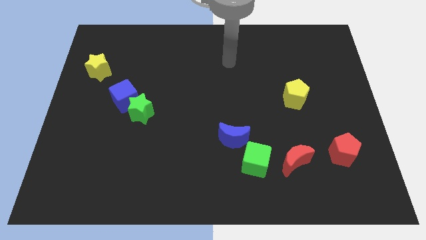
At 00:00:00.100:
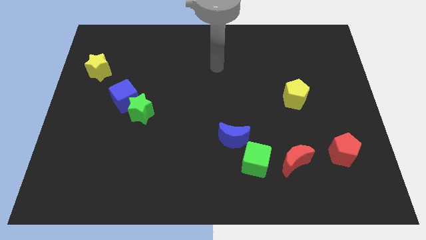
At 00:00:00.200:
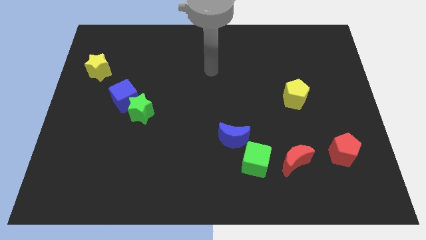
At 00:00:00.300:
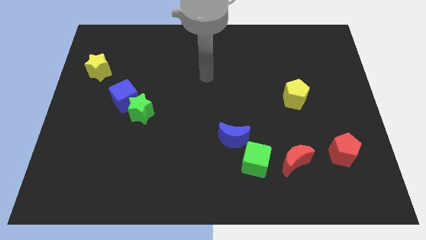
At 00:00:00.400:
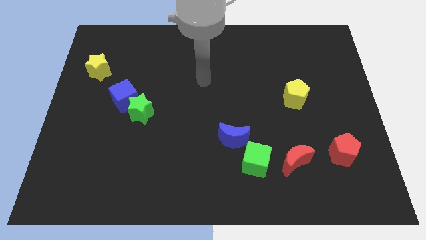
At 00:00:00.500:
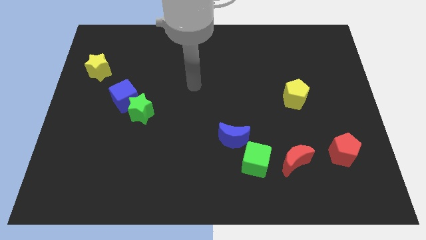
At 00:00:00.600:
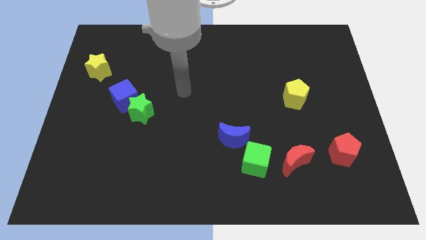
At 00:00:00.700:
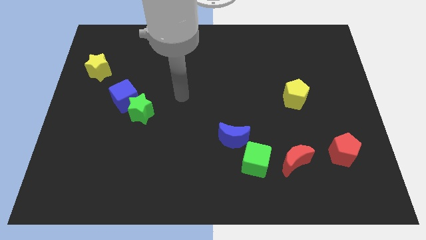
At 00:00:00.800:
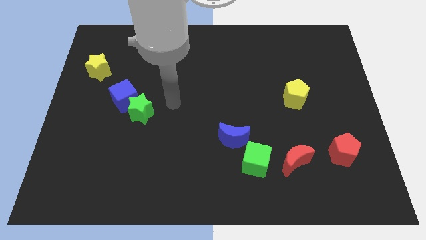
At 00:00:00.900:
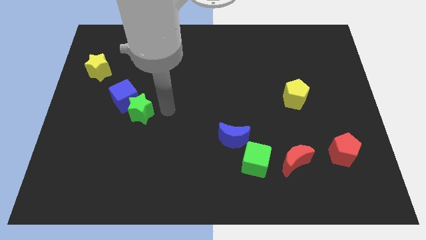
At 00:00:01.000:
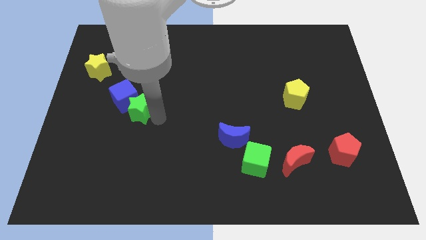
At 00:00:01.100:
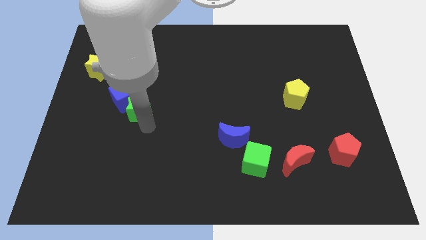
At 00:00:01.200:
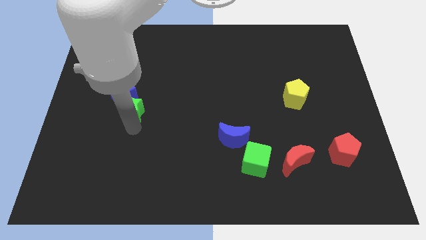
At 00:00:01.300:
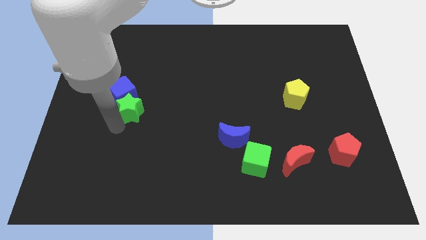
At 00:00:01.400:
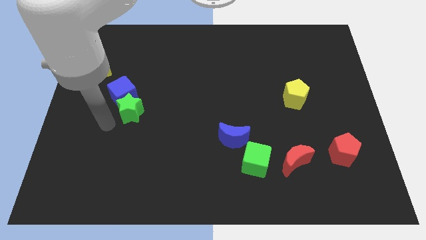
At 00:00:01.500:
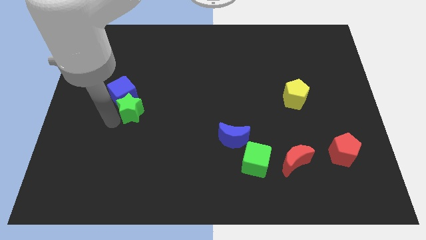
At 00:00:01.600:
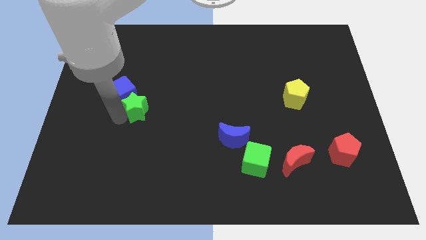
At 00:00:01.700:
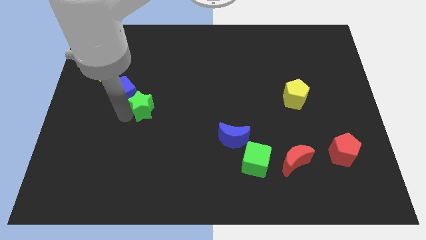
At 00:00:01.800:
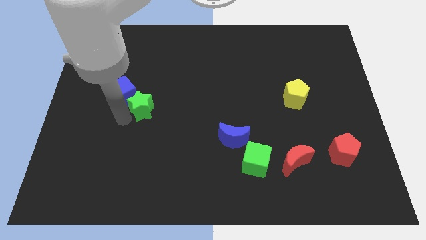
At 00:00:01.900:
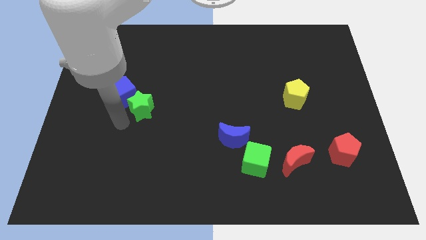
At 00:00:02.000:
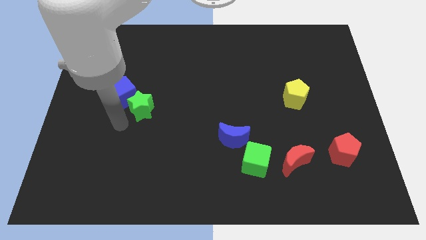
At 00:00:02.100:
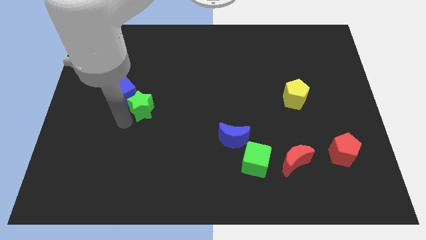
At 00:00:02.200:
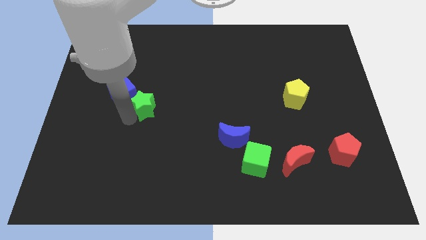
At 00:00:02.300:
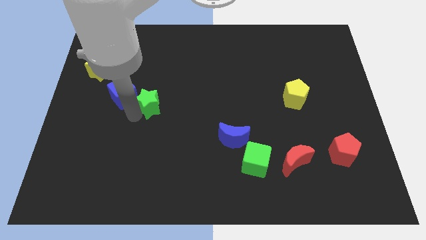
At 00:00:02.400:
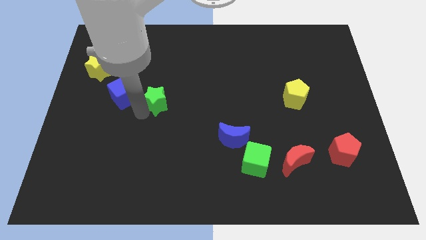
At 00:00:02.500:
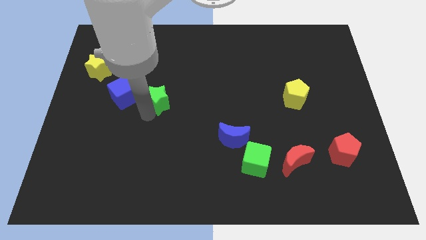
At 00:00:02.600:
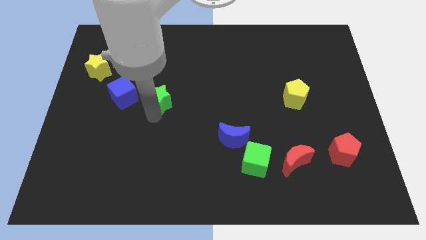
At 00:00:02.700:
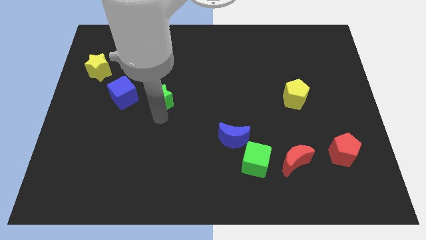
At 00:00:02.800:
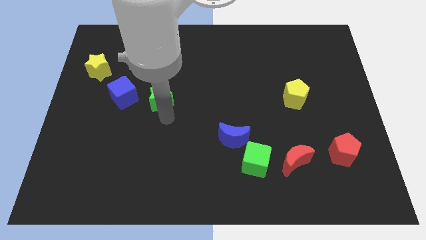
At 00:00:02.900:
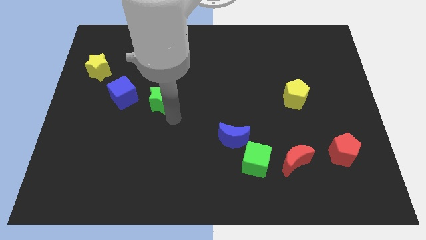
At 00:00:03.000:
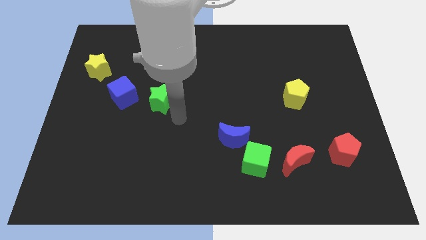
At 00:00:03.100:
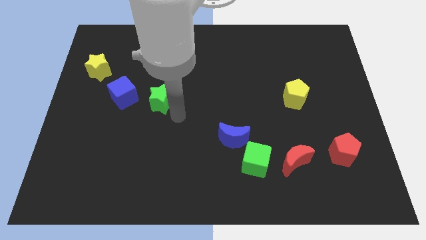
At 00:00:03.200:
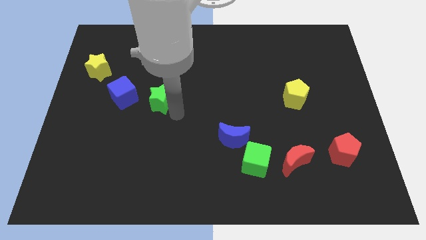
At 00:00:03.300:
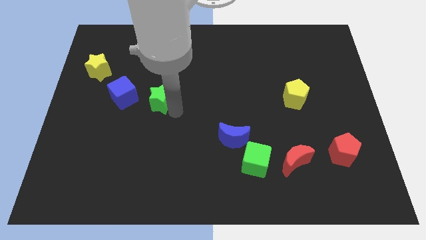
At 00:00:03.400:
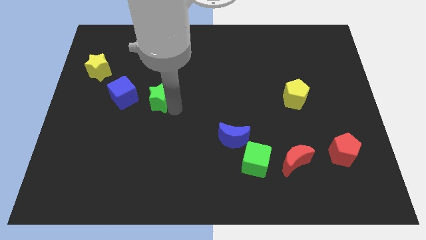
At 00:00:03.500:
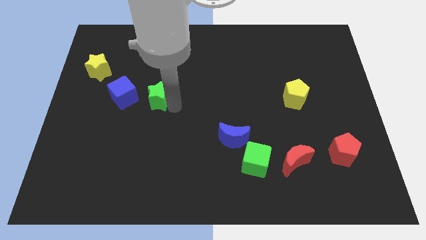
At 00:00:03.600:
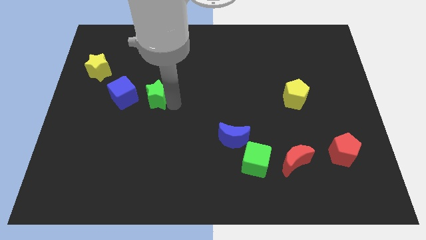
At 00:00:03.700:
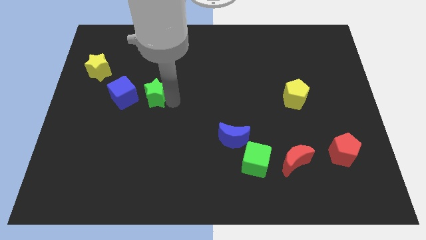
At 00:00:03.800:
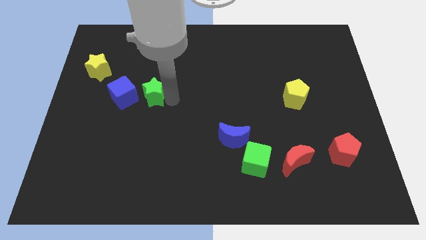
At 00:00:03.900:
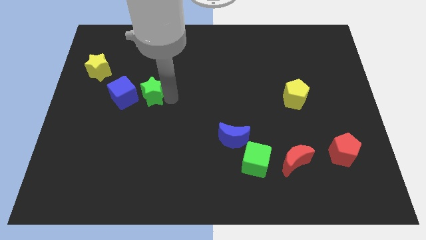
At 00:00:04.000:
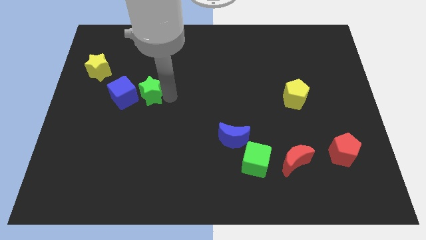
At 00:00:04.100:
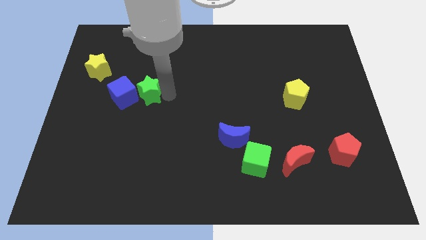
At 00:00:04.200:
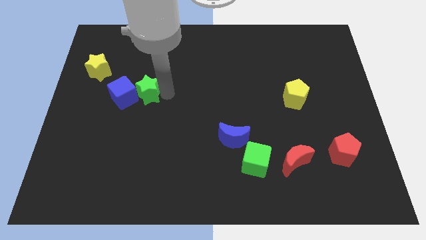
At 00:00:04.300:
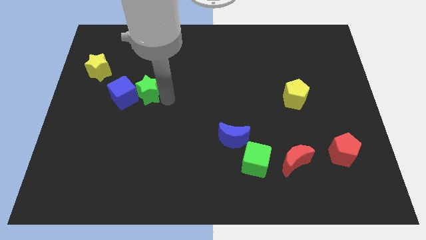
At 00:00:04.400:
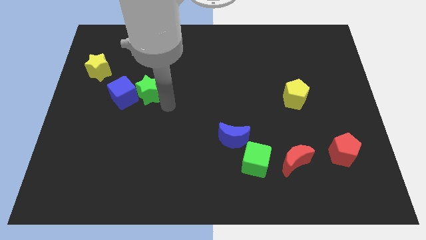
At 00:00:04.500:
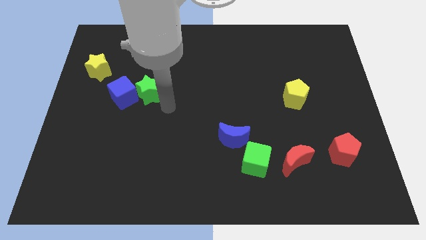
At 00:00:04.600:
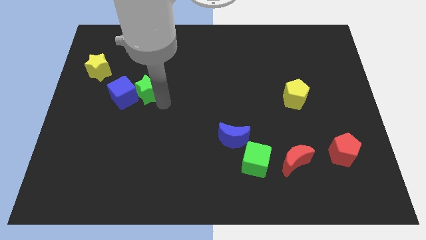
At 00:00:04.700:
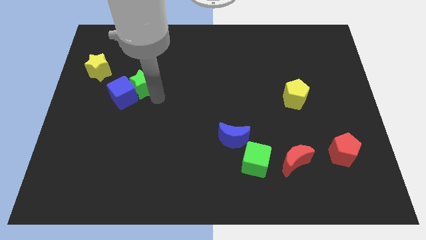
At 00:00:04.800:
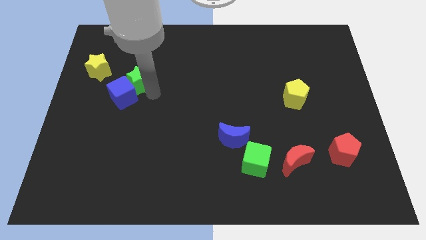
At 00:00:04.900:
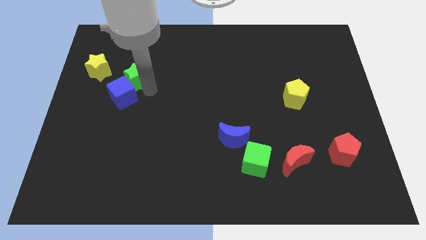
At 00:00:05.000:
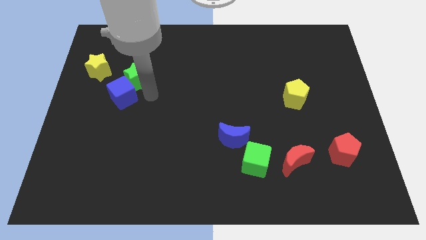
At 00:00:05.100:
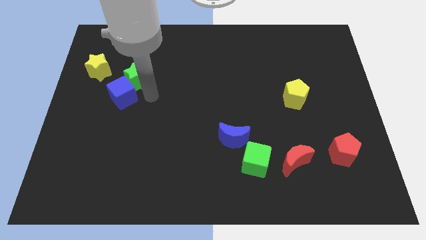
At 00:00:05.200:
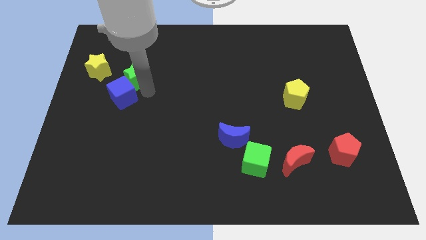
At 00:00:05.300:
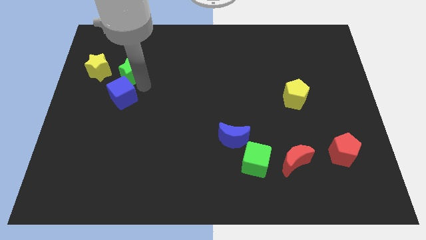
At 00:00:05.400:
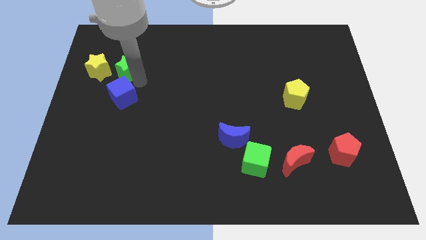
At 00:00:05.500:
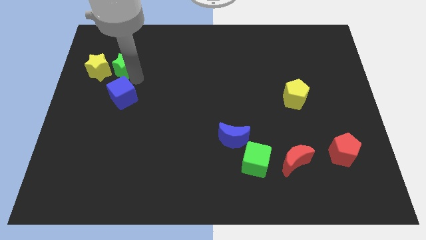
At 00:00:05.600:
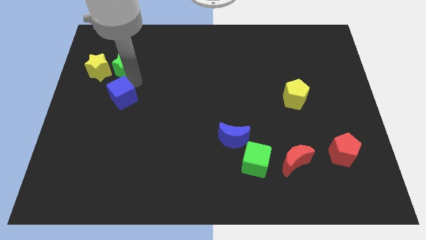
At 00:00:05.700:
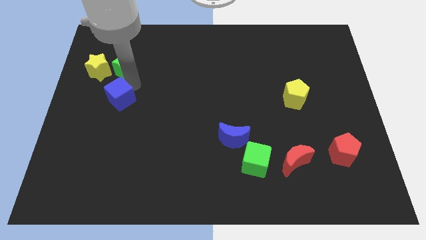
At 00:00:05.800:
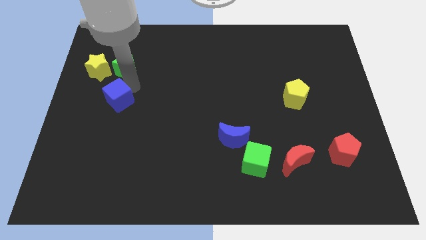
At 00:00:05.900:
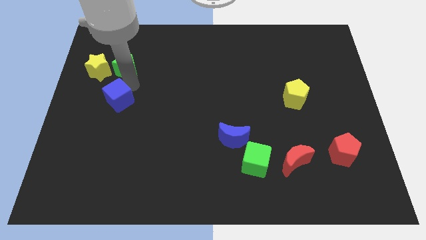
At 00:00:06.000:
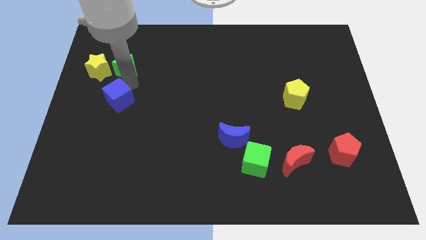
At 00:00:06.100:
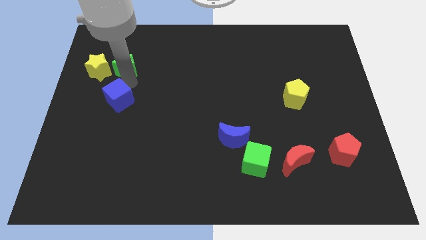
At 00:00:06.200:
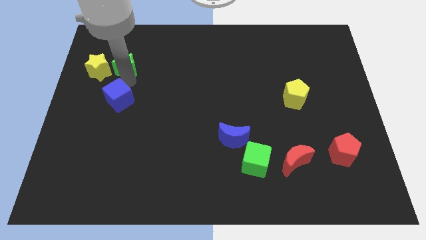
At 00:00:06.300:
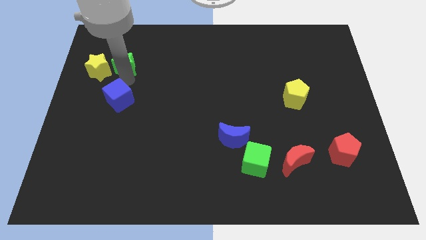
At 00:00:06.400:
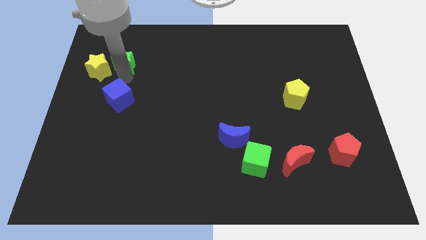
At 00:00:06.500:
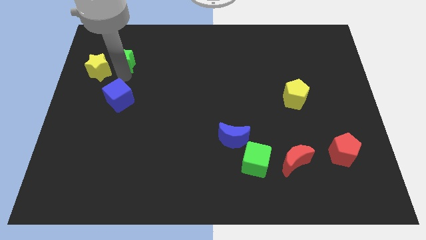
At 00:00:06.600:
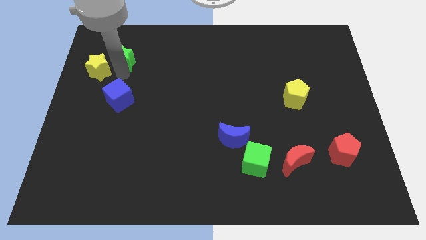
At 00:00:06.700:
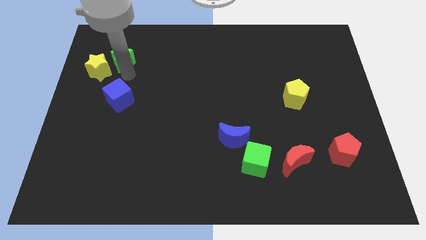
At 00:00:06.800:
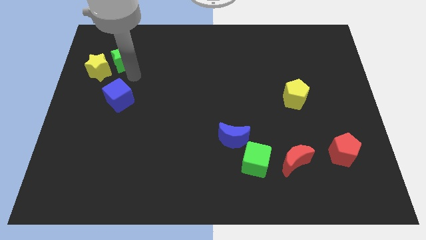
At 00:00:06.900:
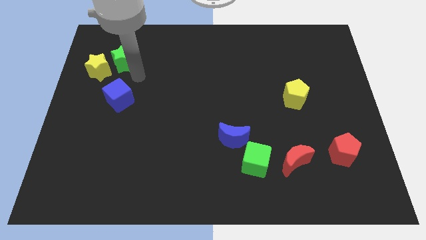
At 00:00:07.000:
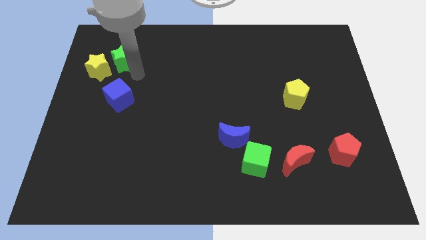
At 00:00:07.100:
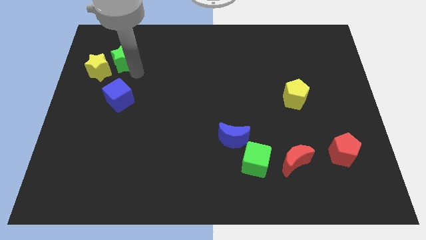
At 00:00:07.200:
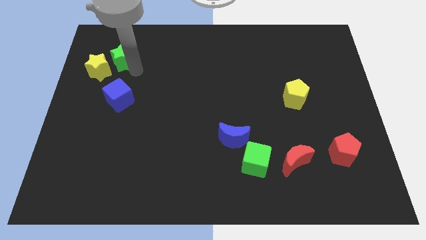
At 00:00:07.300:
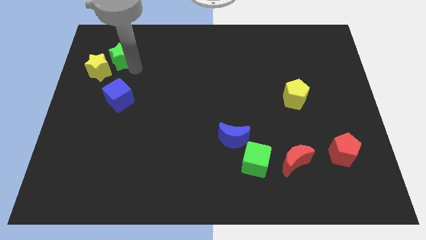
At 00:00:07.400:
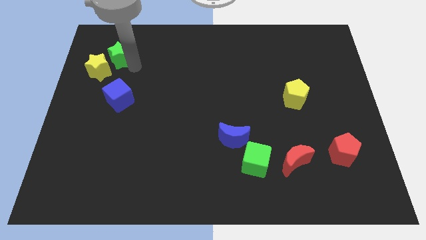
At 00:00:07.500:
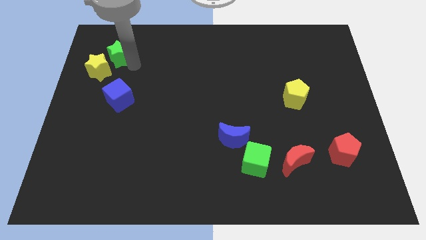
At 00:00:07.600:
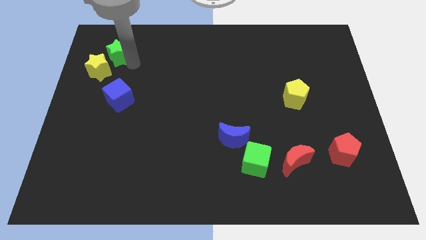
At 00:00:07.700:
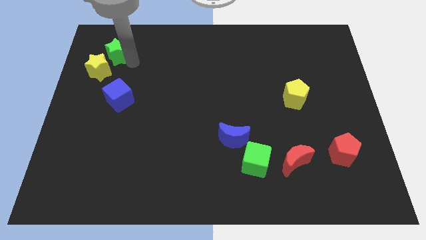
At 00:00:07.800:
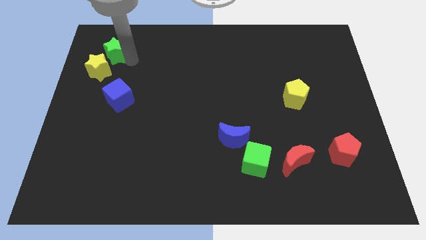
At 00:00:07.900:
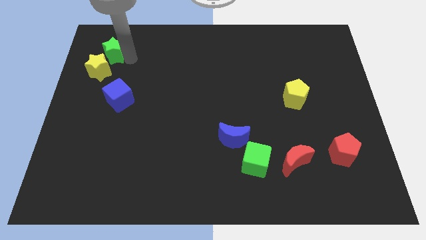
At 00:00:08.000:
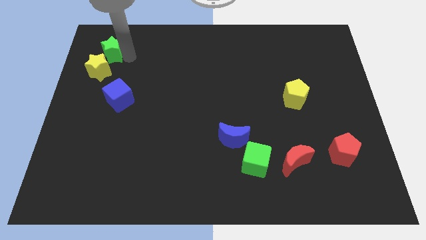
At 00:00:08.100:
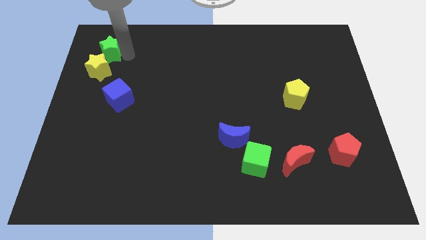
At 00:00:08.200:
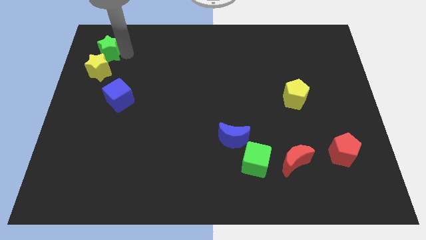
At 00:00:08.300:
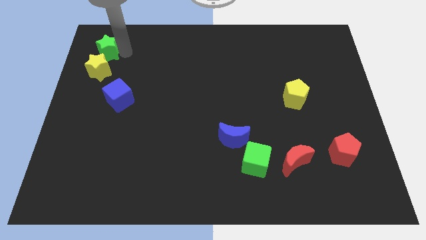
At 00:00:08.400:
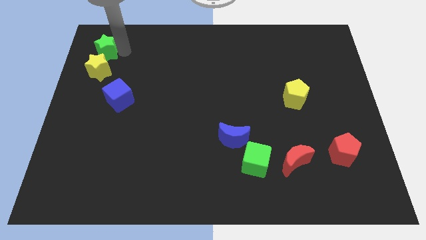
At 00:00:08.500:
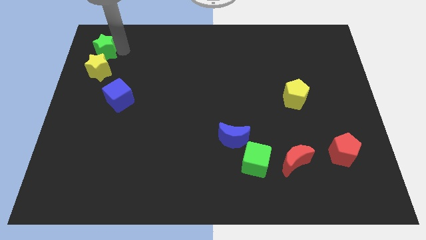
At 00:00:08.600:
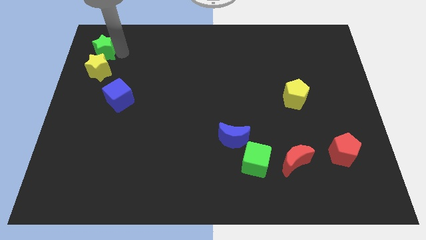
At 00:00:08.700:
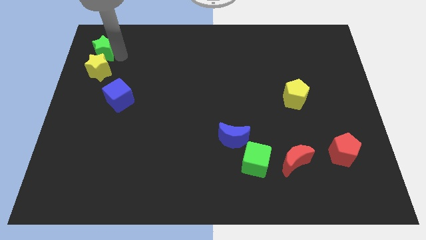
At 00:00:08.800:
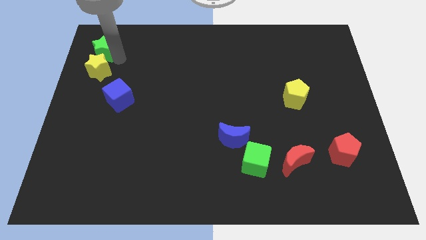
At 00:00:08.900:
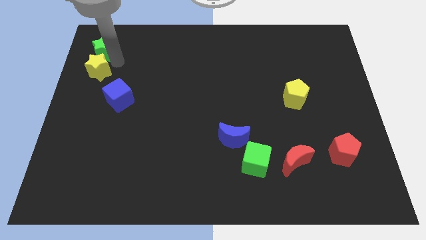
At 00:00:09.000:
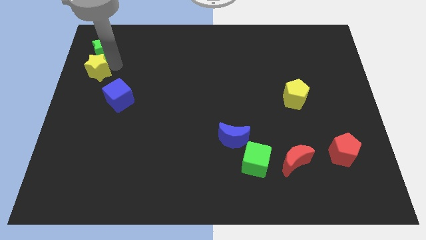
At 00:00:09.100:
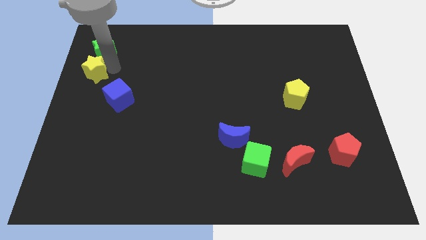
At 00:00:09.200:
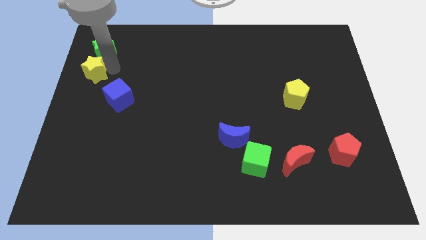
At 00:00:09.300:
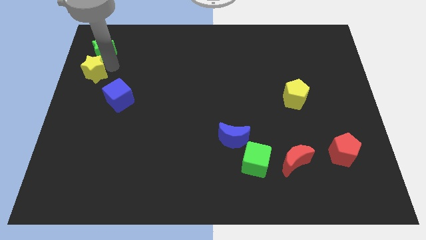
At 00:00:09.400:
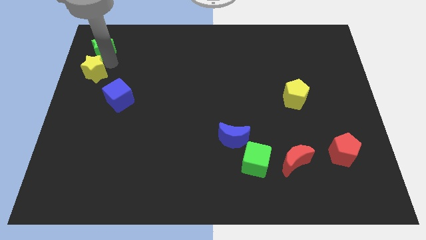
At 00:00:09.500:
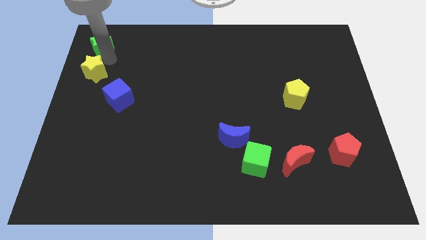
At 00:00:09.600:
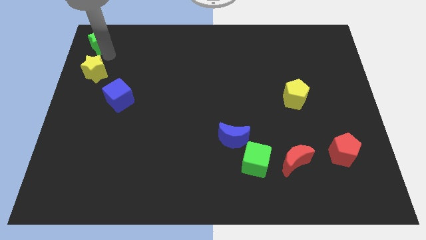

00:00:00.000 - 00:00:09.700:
move the green star to the upper left corner
